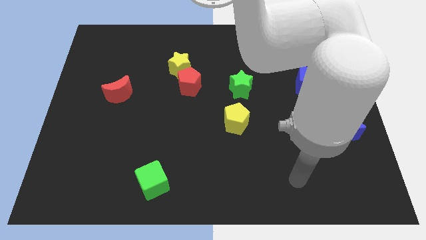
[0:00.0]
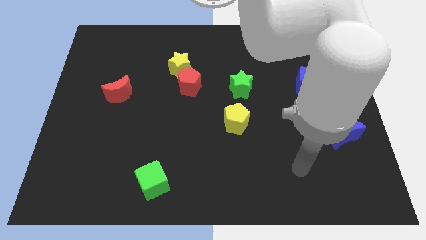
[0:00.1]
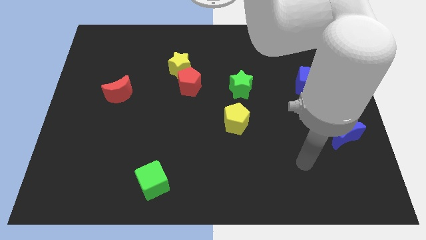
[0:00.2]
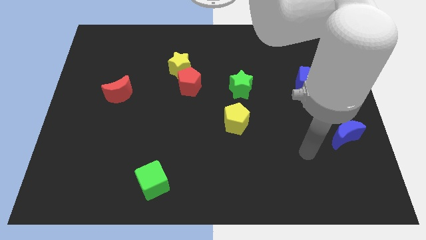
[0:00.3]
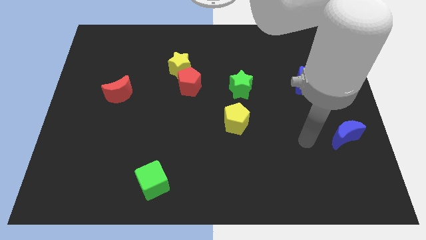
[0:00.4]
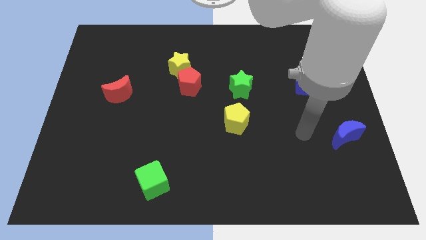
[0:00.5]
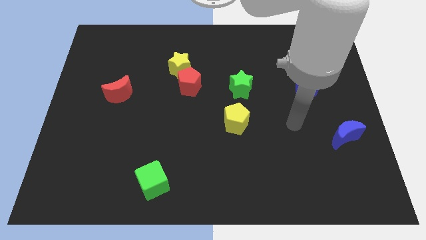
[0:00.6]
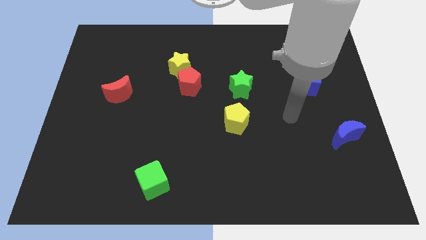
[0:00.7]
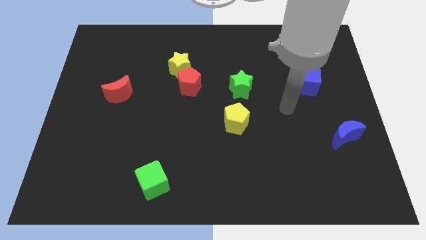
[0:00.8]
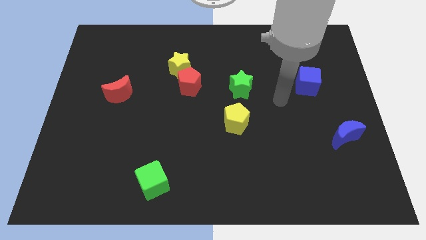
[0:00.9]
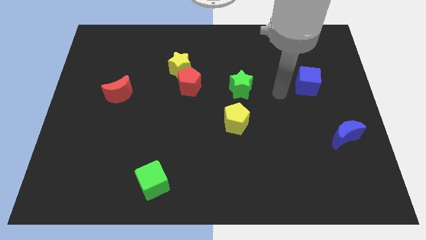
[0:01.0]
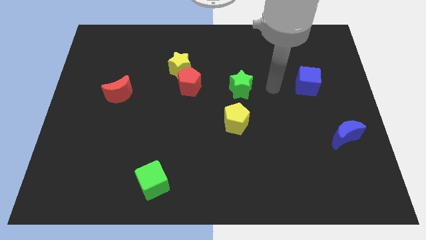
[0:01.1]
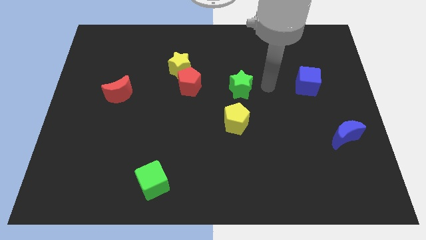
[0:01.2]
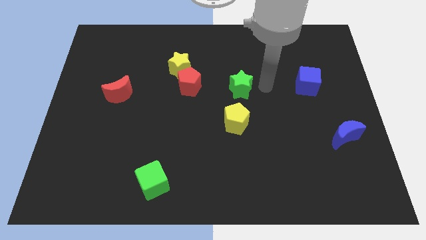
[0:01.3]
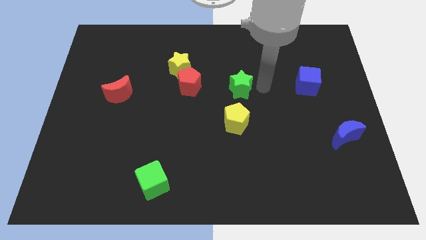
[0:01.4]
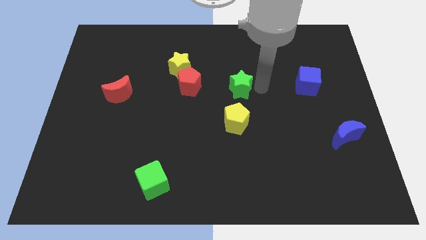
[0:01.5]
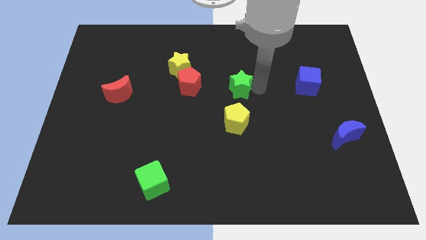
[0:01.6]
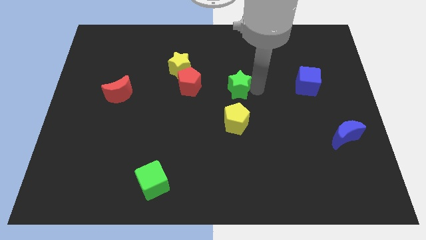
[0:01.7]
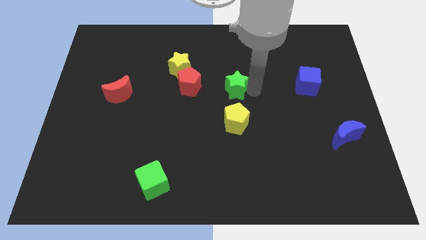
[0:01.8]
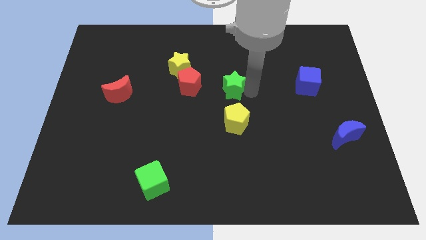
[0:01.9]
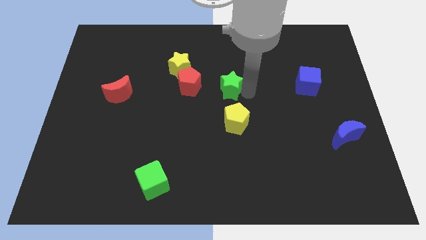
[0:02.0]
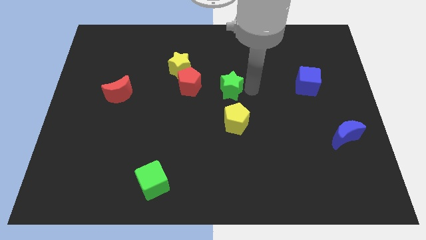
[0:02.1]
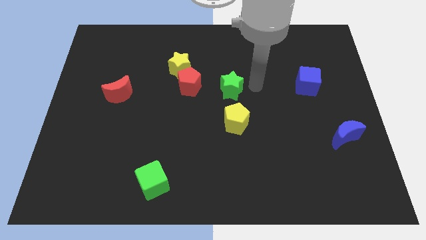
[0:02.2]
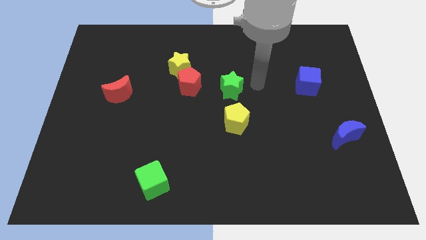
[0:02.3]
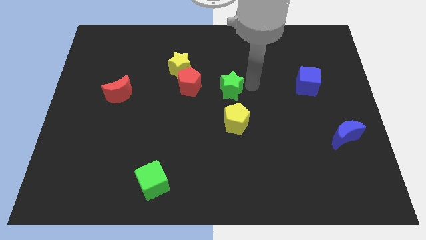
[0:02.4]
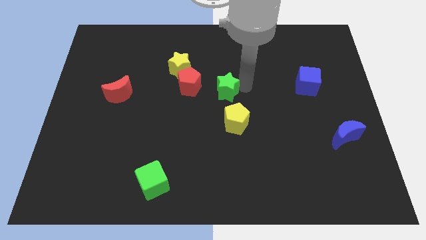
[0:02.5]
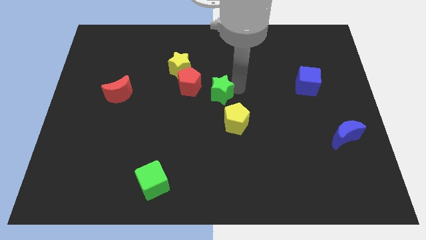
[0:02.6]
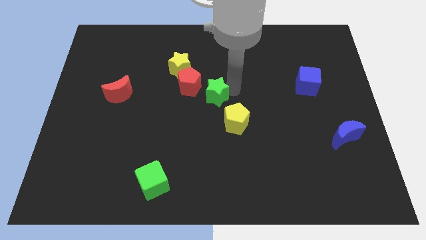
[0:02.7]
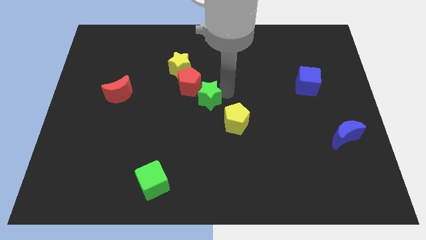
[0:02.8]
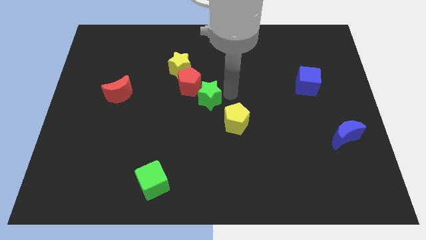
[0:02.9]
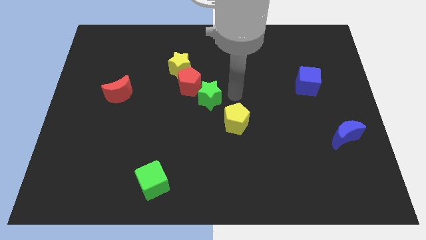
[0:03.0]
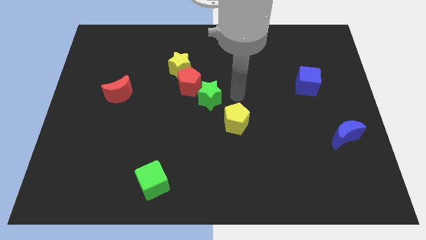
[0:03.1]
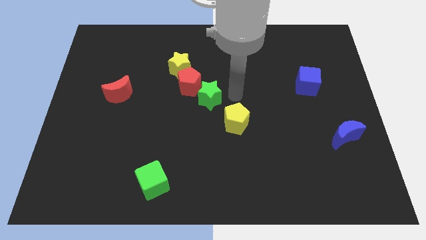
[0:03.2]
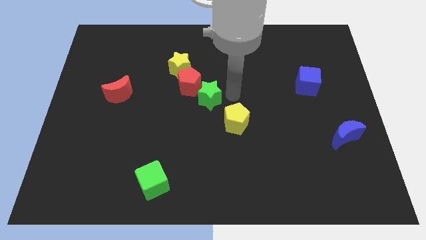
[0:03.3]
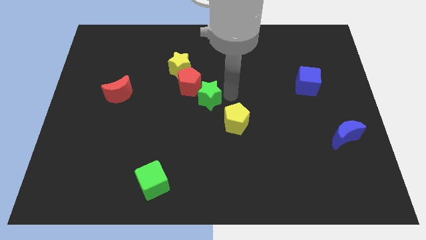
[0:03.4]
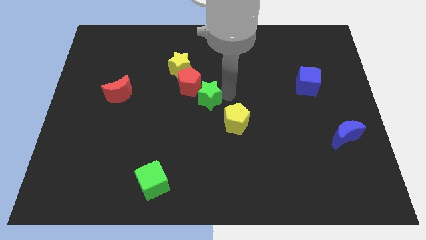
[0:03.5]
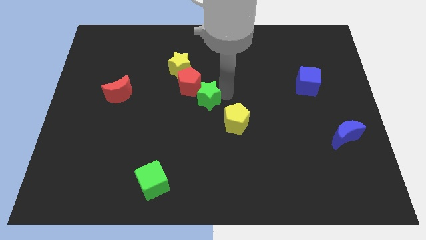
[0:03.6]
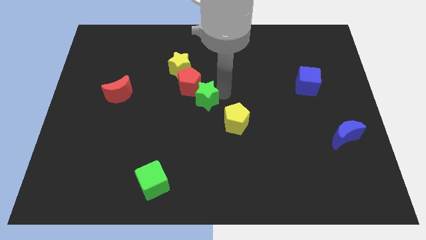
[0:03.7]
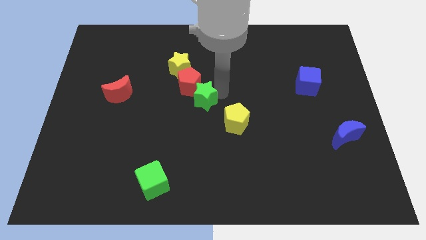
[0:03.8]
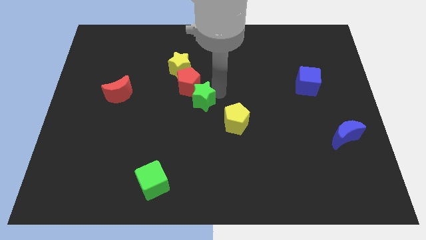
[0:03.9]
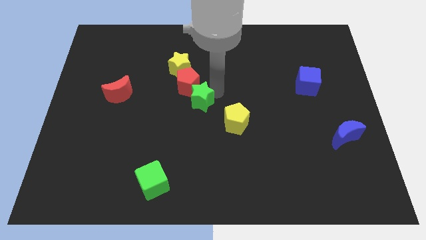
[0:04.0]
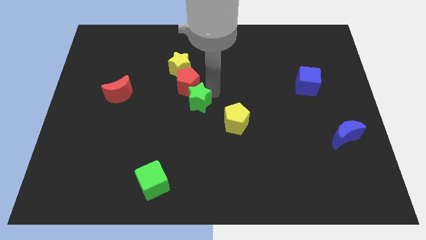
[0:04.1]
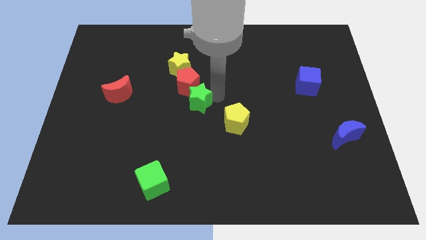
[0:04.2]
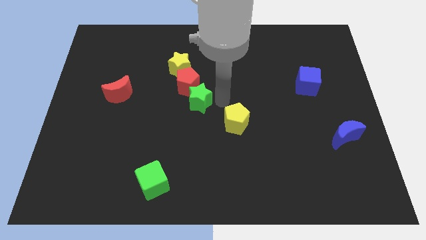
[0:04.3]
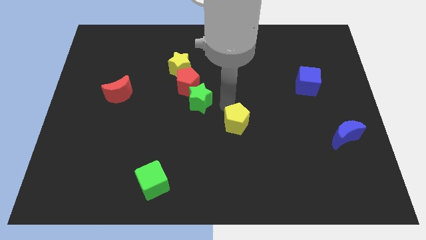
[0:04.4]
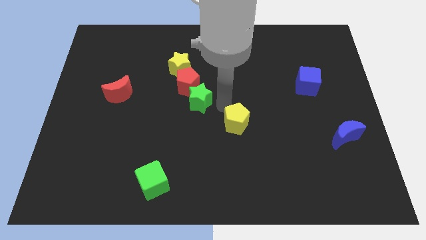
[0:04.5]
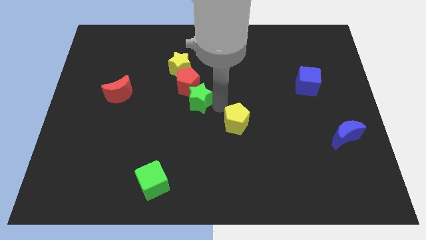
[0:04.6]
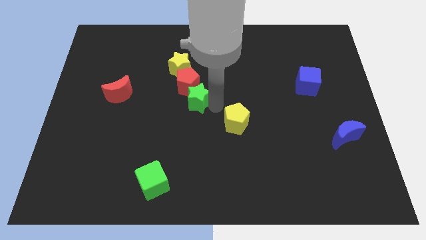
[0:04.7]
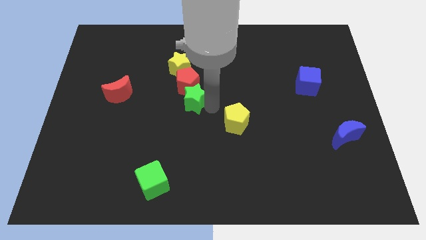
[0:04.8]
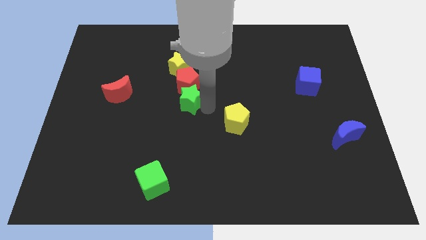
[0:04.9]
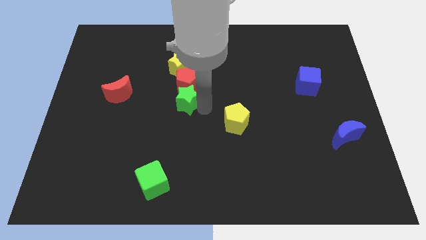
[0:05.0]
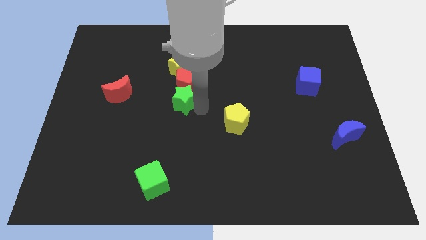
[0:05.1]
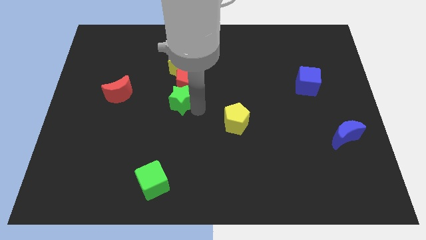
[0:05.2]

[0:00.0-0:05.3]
slide the green star right of the red moon

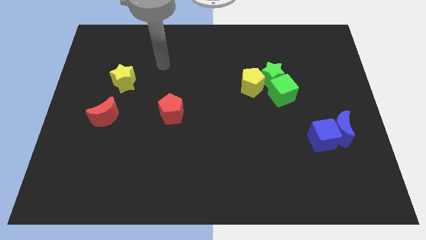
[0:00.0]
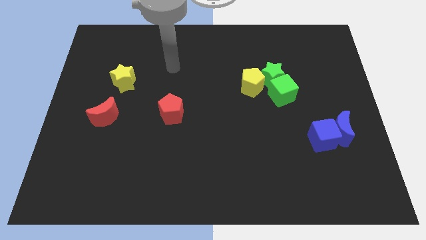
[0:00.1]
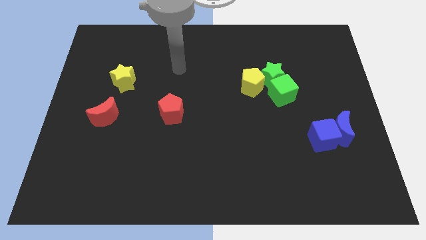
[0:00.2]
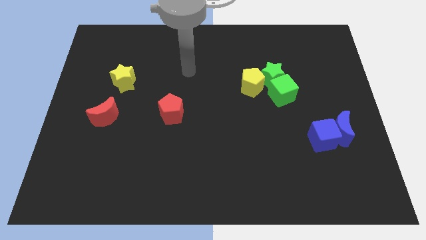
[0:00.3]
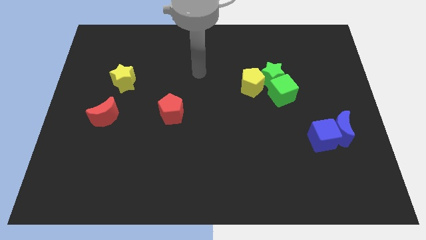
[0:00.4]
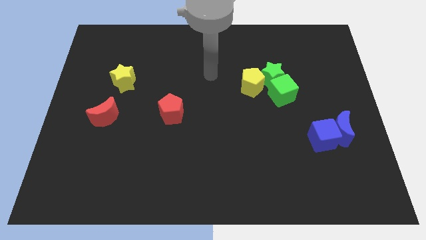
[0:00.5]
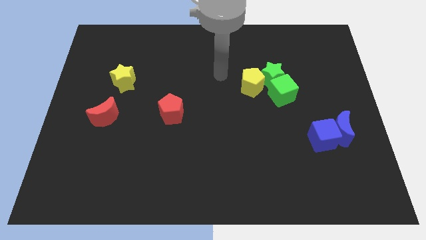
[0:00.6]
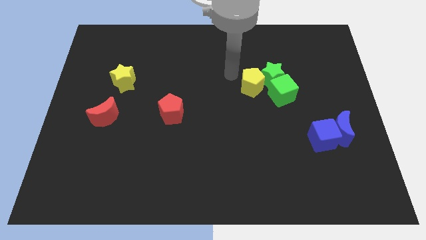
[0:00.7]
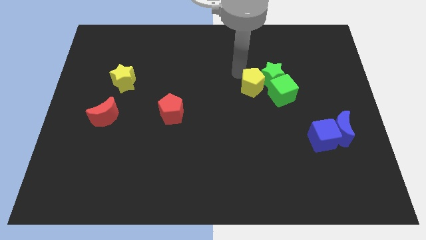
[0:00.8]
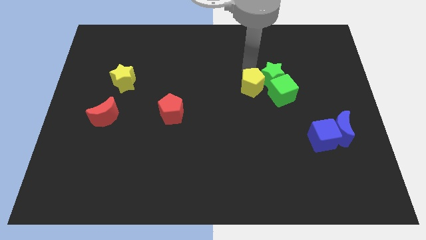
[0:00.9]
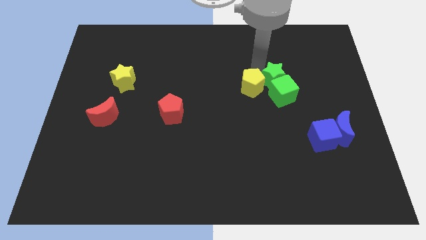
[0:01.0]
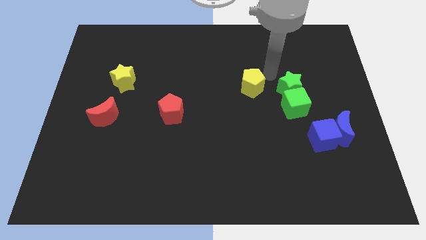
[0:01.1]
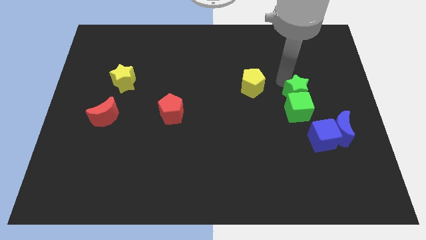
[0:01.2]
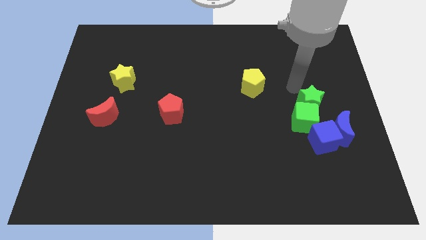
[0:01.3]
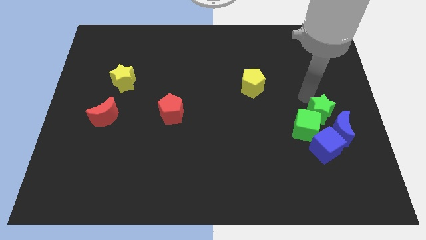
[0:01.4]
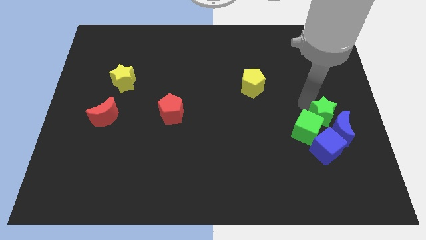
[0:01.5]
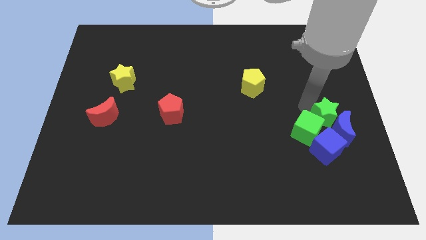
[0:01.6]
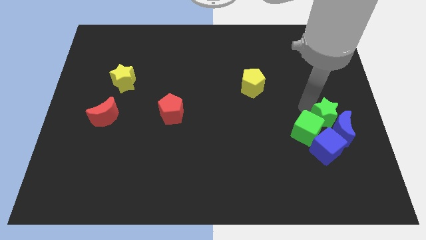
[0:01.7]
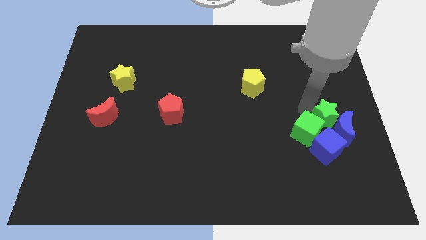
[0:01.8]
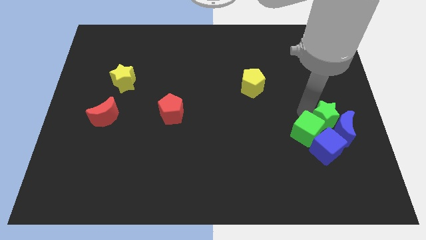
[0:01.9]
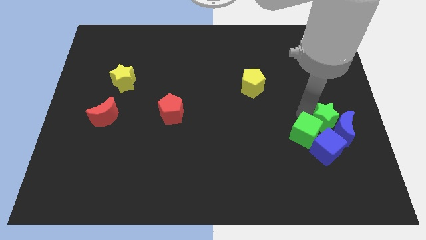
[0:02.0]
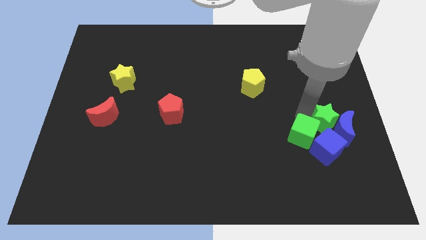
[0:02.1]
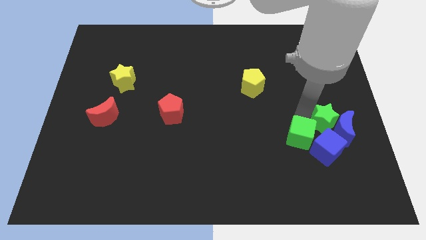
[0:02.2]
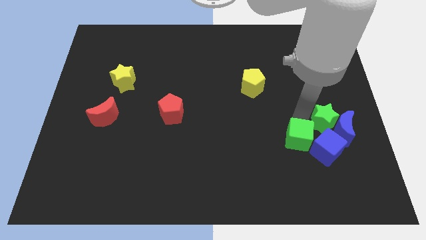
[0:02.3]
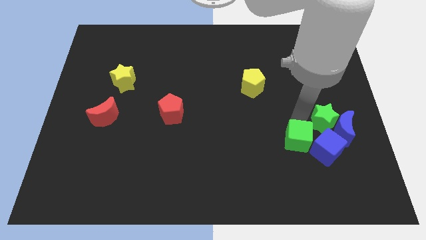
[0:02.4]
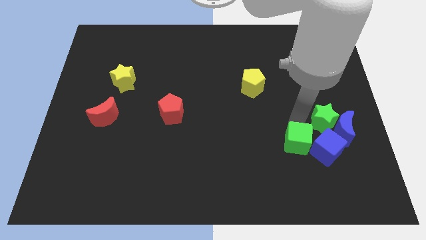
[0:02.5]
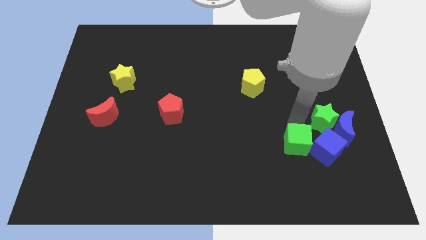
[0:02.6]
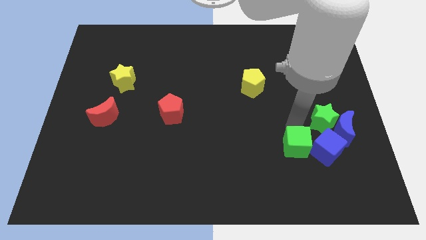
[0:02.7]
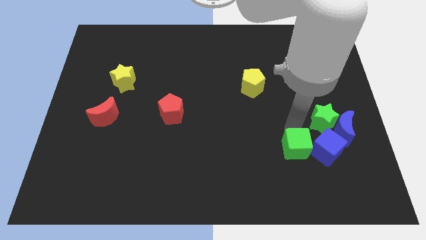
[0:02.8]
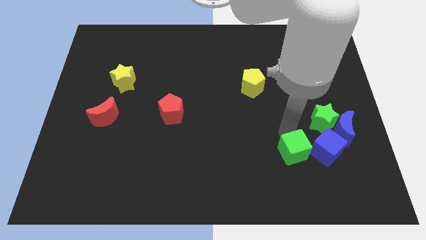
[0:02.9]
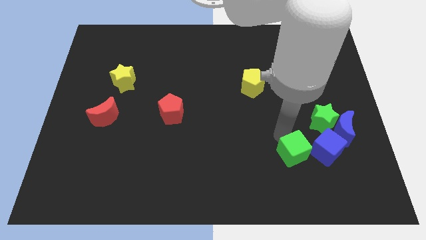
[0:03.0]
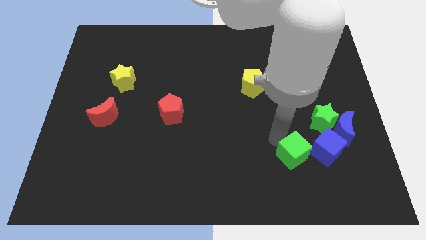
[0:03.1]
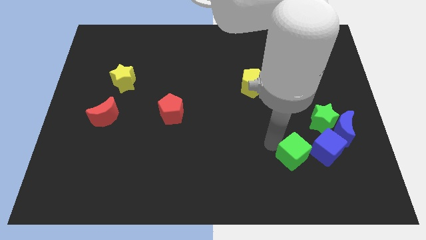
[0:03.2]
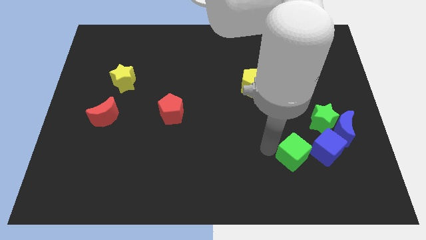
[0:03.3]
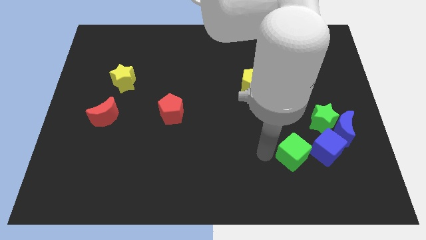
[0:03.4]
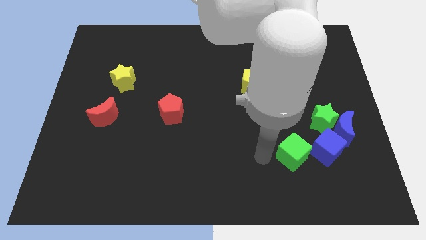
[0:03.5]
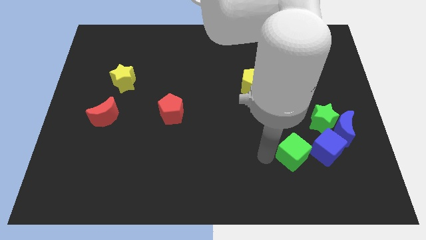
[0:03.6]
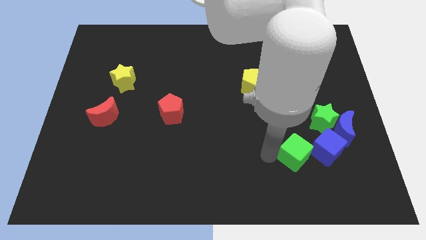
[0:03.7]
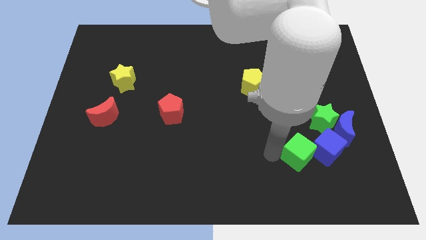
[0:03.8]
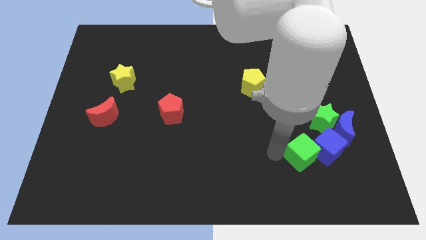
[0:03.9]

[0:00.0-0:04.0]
put the green cube diagonally down and to the left of the blue moon
